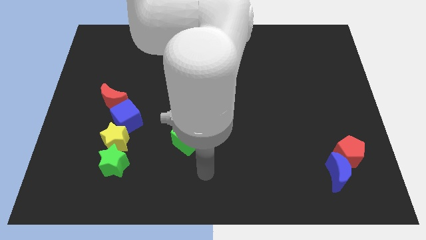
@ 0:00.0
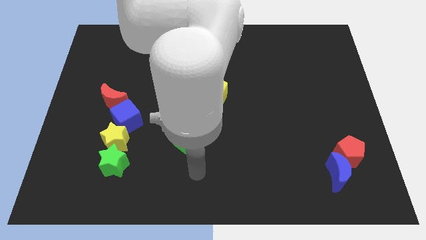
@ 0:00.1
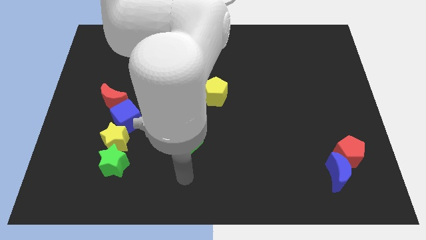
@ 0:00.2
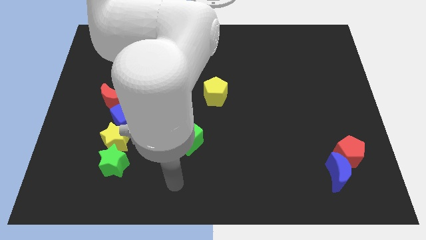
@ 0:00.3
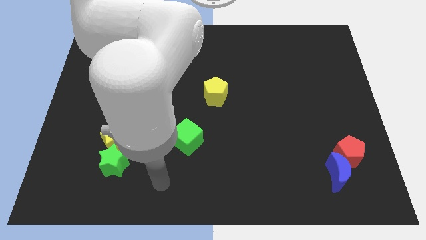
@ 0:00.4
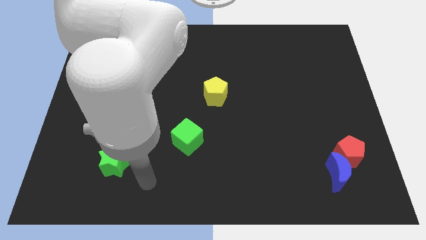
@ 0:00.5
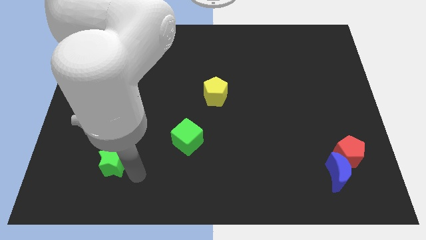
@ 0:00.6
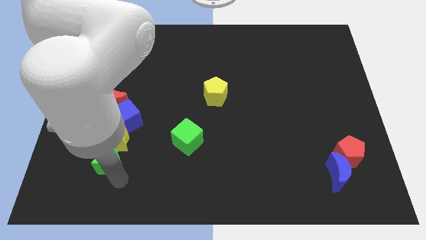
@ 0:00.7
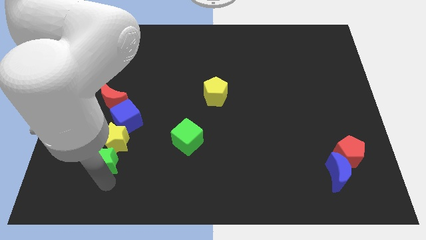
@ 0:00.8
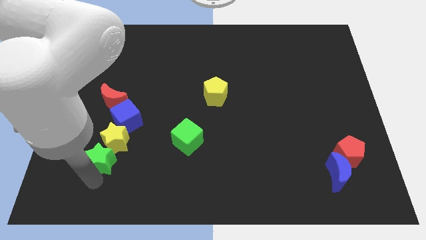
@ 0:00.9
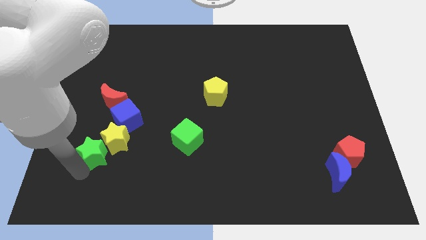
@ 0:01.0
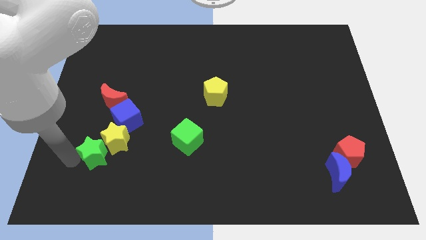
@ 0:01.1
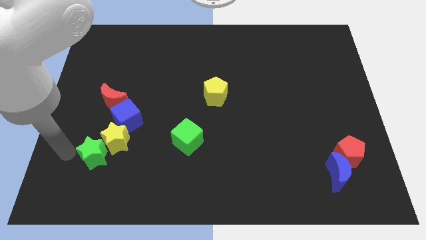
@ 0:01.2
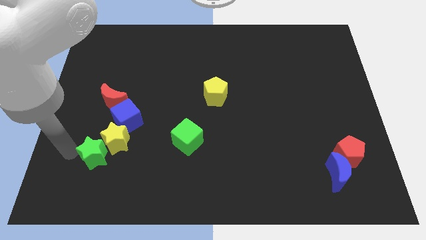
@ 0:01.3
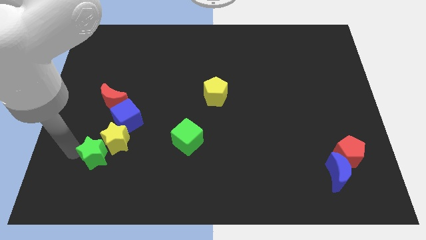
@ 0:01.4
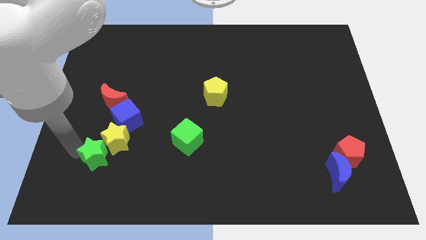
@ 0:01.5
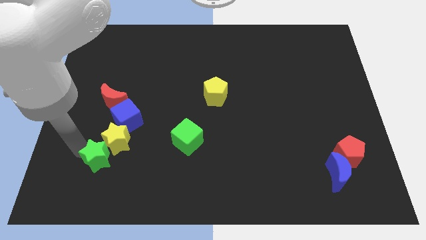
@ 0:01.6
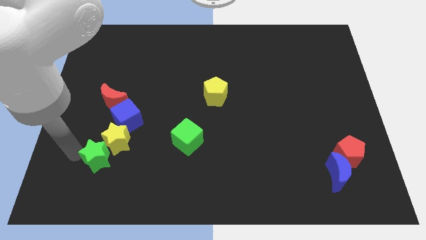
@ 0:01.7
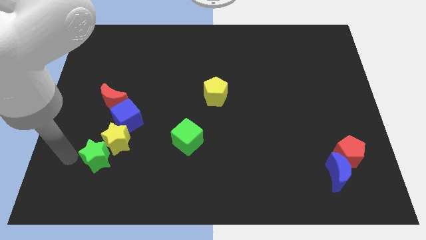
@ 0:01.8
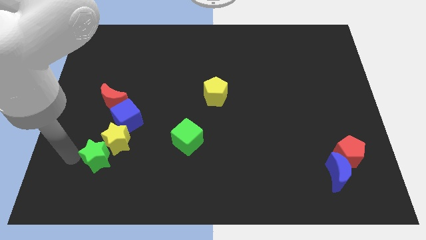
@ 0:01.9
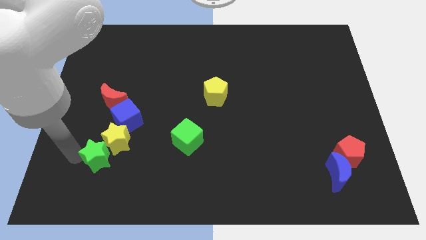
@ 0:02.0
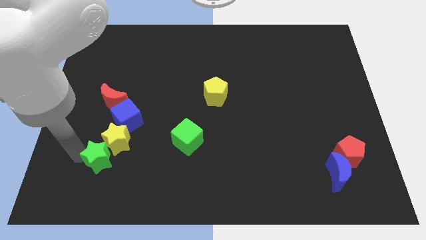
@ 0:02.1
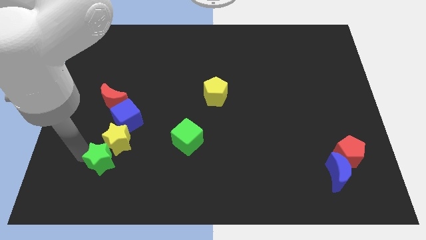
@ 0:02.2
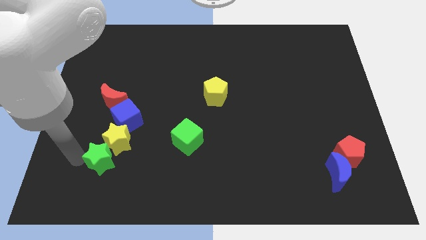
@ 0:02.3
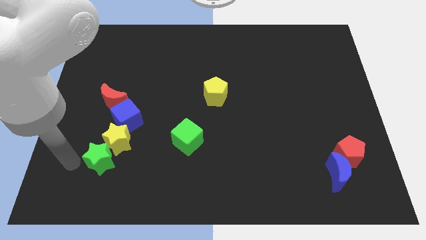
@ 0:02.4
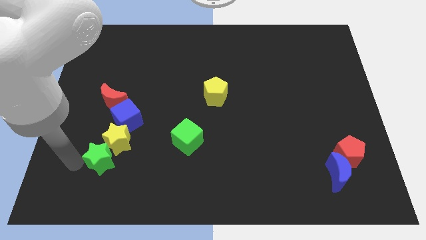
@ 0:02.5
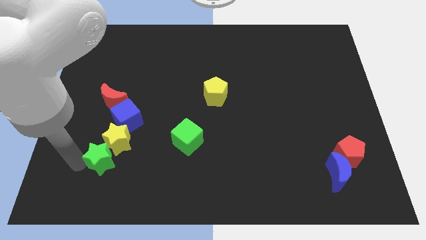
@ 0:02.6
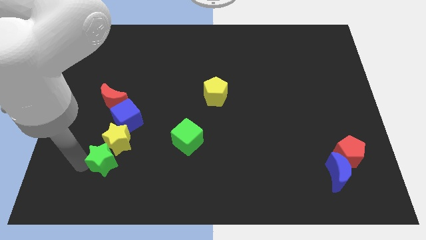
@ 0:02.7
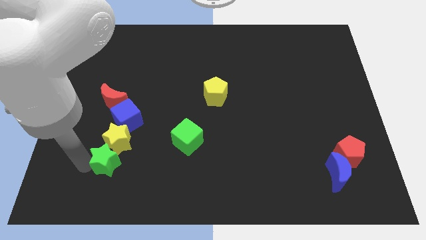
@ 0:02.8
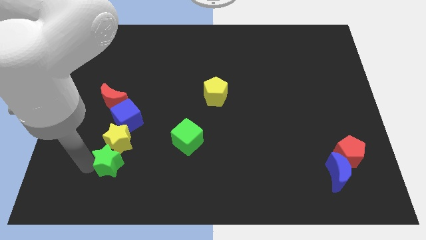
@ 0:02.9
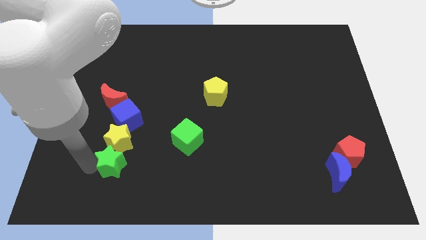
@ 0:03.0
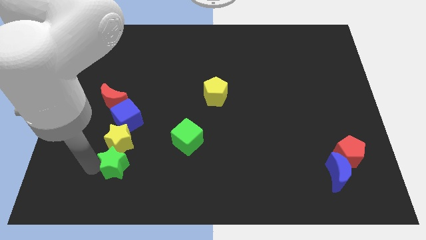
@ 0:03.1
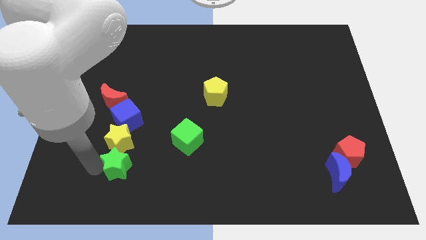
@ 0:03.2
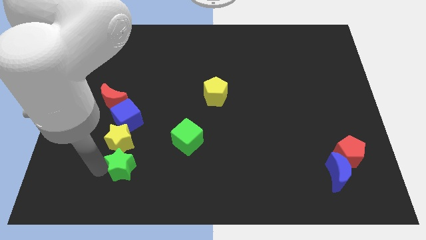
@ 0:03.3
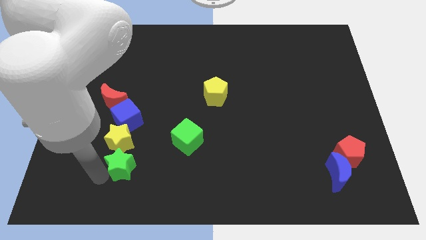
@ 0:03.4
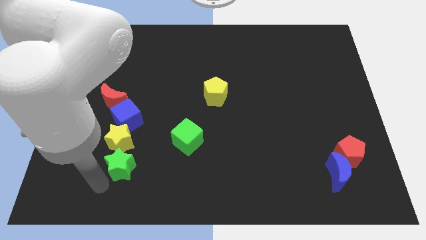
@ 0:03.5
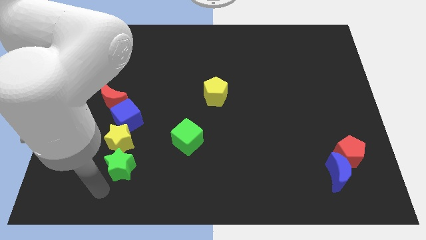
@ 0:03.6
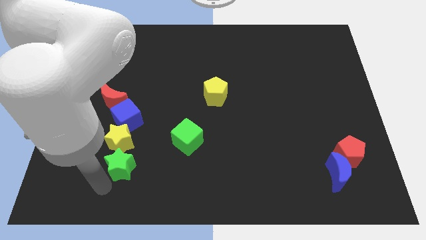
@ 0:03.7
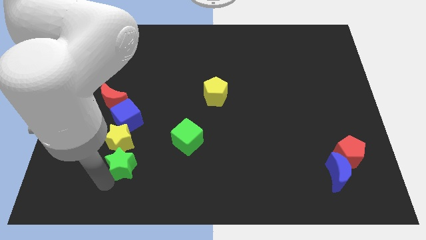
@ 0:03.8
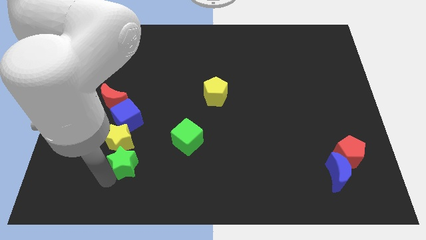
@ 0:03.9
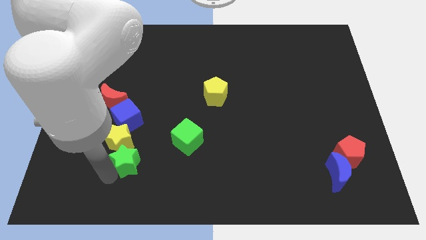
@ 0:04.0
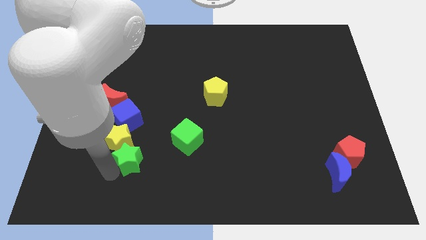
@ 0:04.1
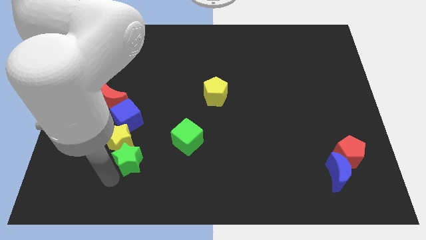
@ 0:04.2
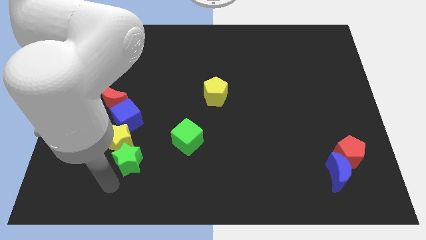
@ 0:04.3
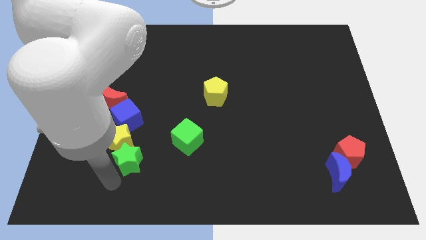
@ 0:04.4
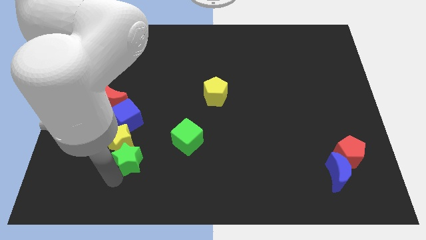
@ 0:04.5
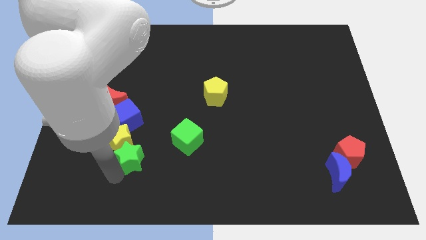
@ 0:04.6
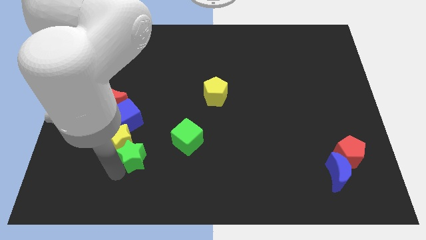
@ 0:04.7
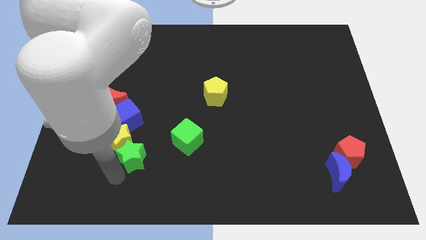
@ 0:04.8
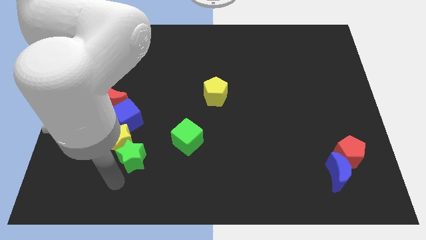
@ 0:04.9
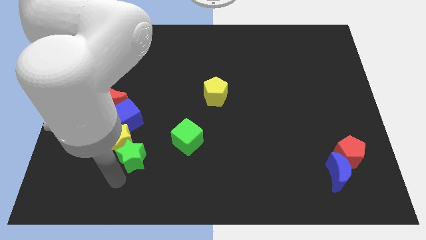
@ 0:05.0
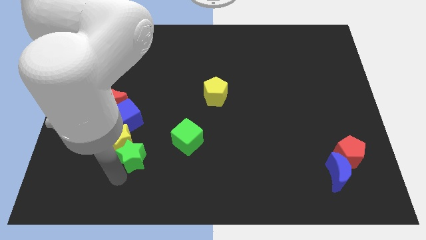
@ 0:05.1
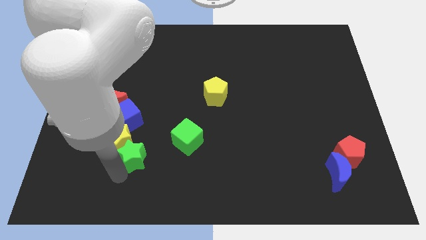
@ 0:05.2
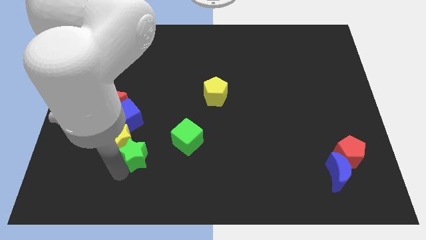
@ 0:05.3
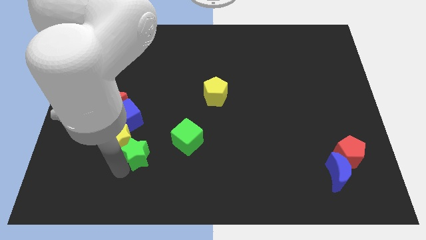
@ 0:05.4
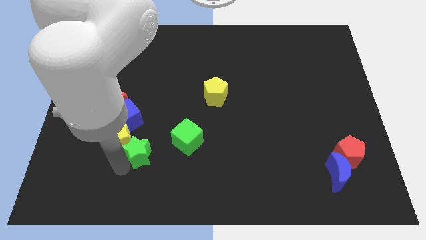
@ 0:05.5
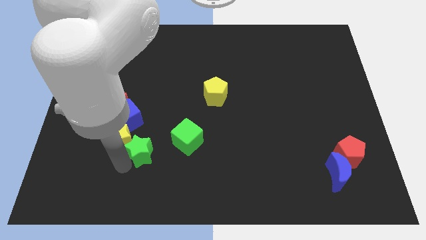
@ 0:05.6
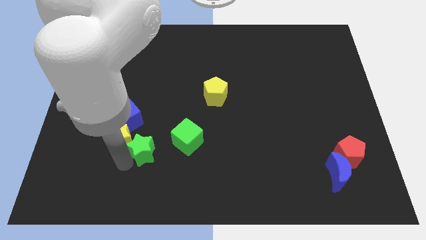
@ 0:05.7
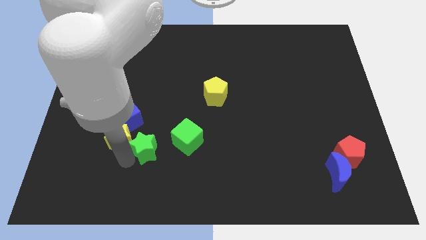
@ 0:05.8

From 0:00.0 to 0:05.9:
slightly push the green star up and to the right diagonally

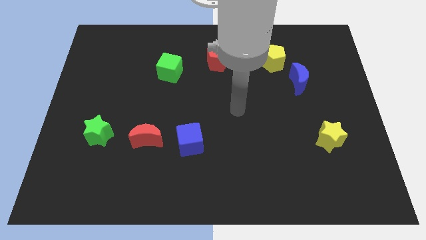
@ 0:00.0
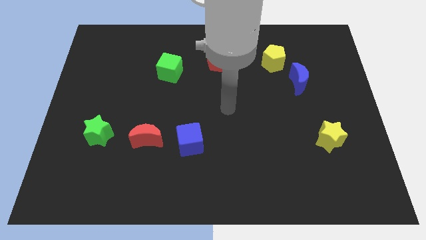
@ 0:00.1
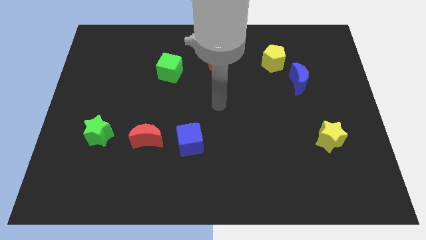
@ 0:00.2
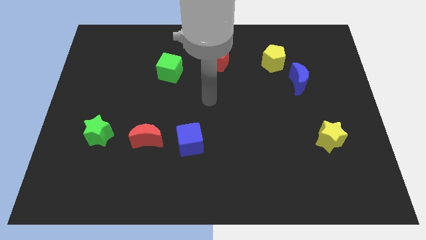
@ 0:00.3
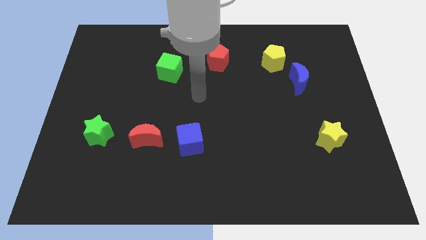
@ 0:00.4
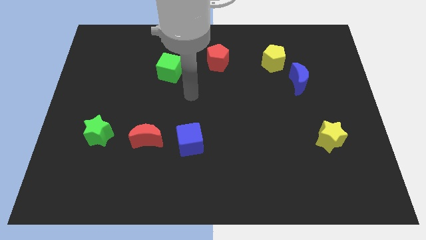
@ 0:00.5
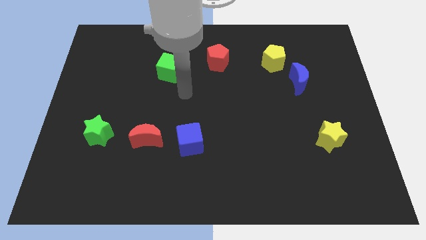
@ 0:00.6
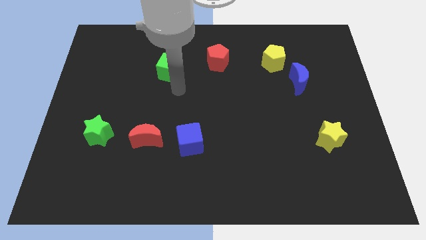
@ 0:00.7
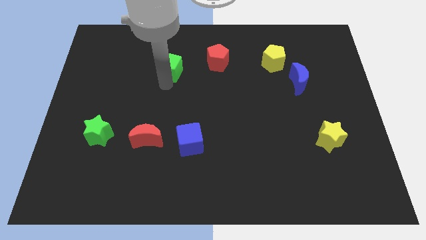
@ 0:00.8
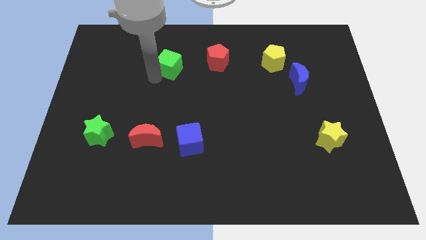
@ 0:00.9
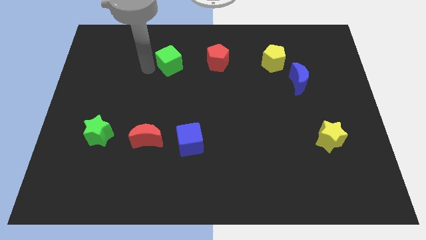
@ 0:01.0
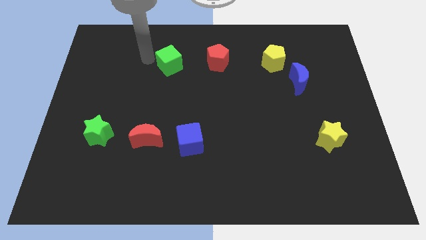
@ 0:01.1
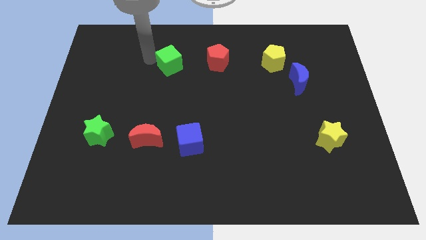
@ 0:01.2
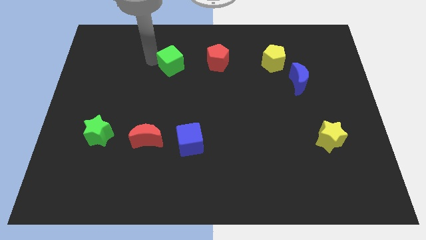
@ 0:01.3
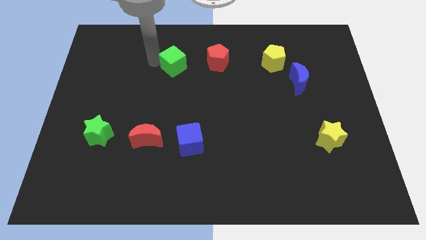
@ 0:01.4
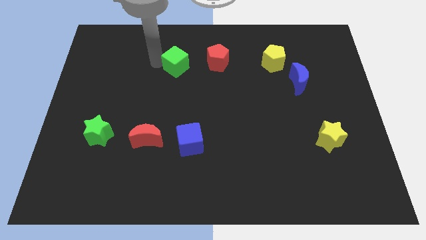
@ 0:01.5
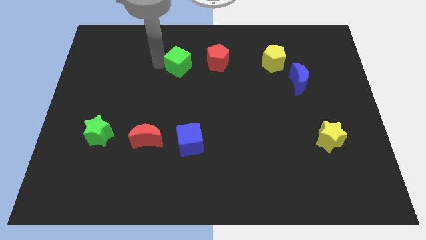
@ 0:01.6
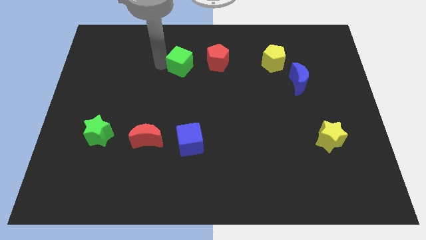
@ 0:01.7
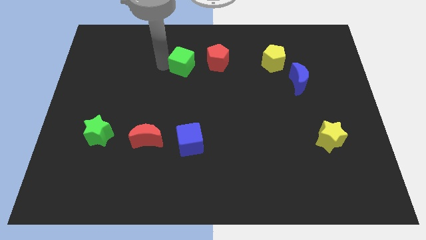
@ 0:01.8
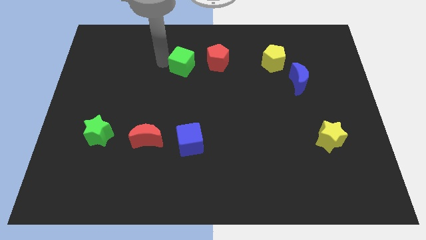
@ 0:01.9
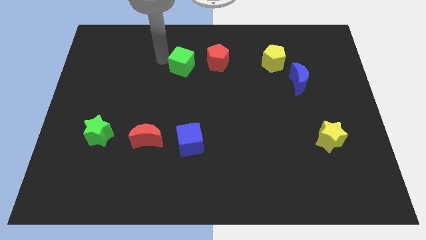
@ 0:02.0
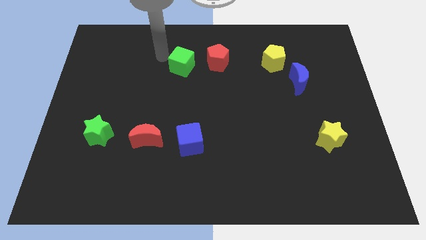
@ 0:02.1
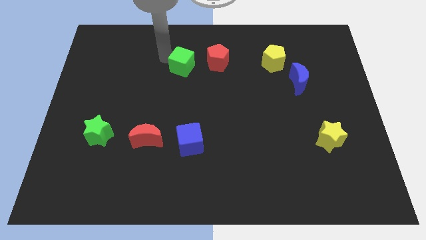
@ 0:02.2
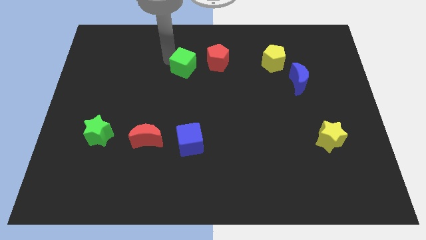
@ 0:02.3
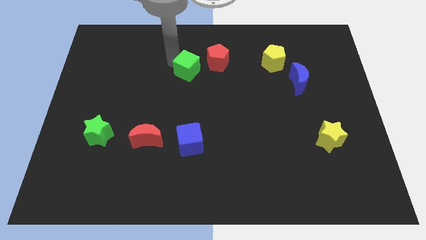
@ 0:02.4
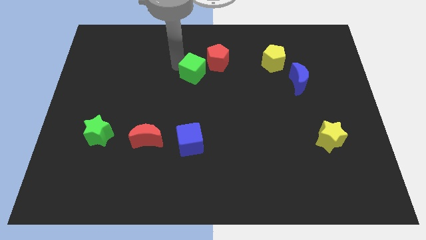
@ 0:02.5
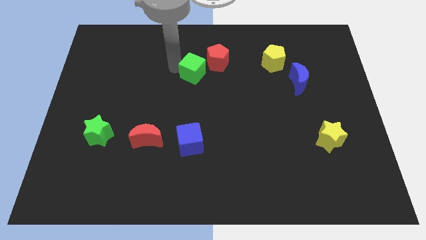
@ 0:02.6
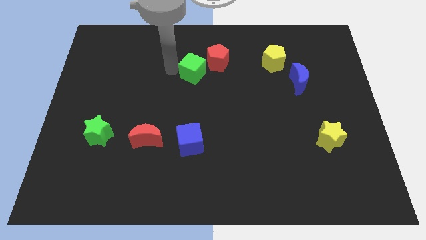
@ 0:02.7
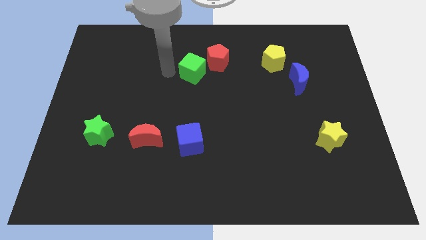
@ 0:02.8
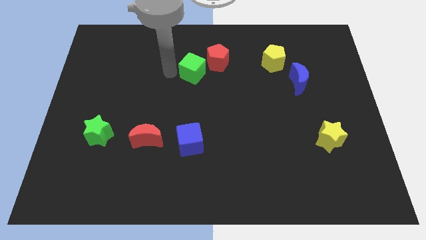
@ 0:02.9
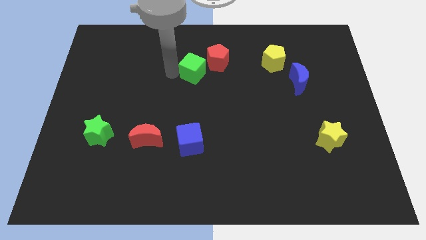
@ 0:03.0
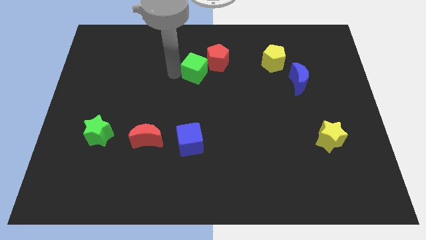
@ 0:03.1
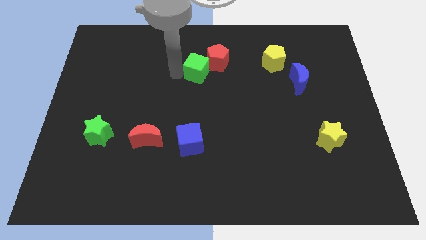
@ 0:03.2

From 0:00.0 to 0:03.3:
slide the green cube right slightly
